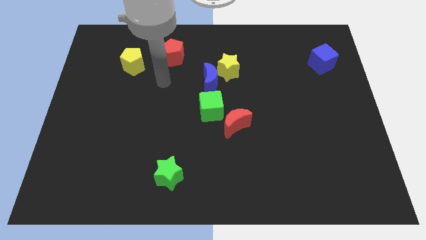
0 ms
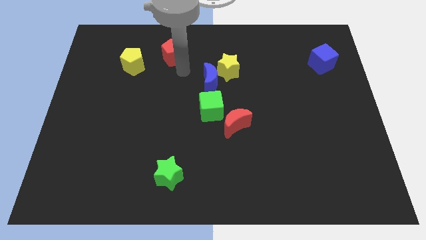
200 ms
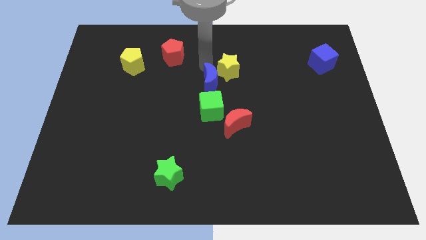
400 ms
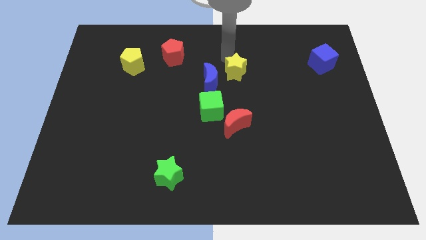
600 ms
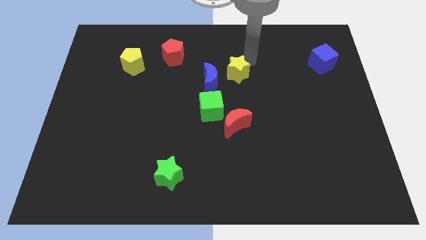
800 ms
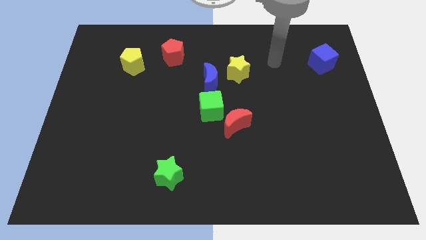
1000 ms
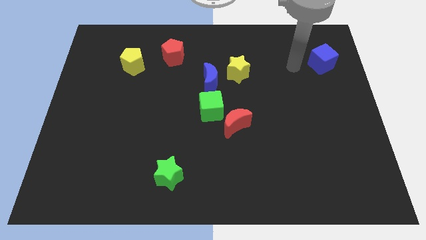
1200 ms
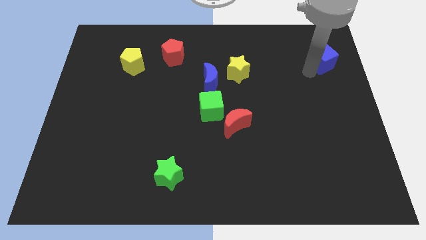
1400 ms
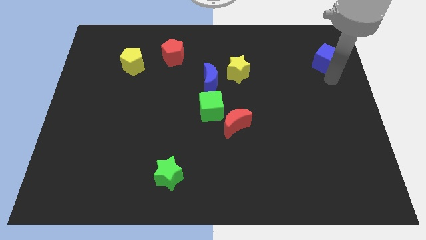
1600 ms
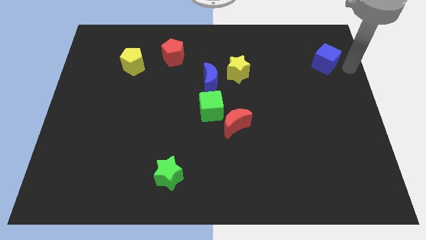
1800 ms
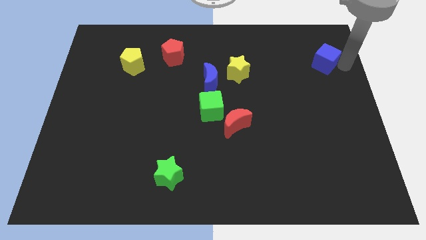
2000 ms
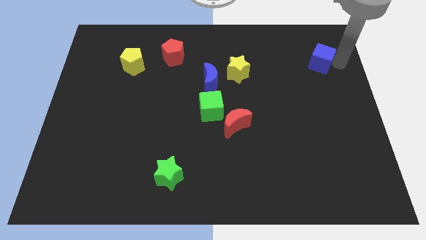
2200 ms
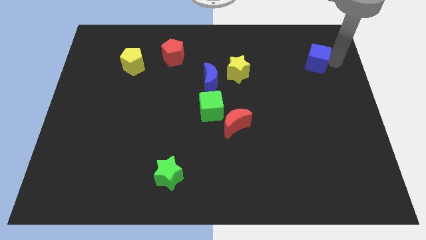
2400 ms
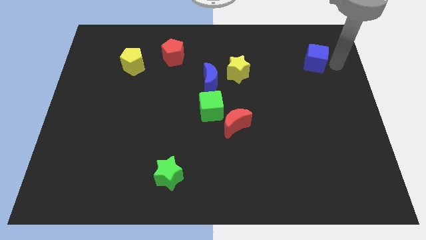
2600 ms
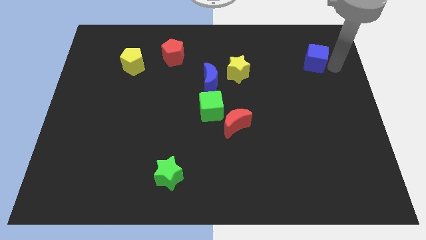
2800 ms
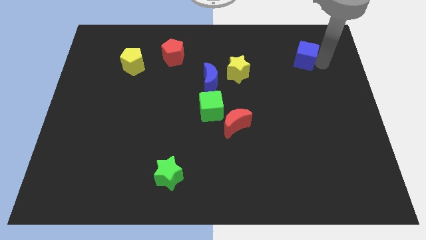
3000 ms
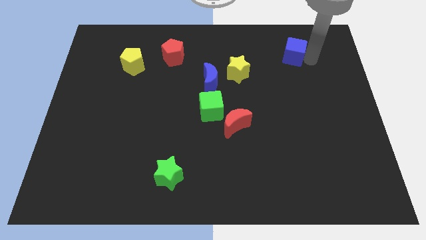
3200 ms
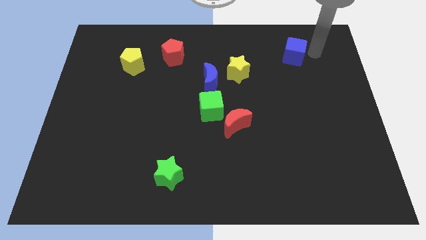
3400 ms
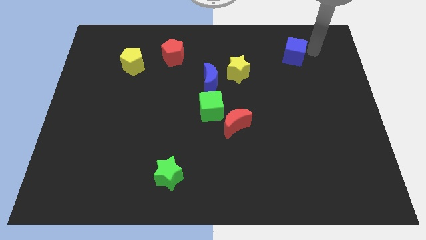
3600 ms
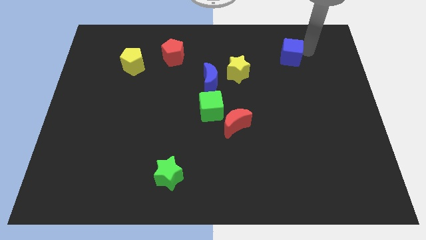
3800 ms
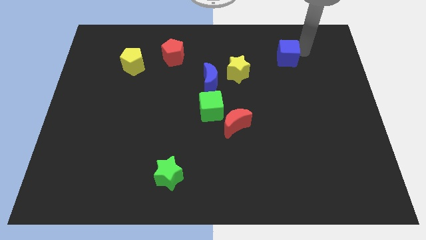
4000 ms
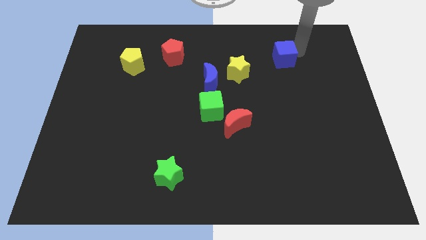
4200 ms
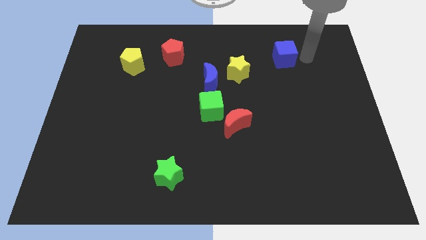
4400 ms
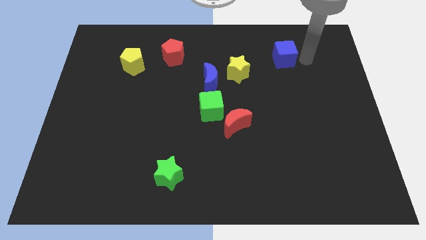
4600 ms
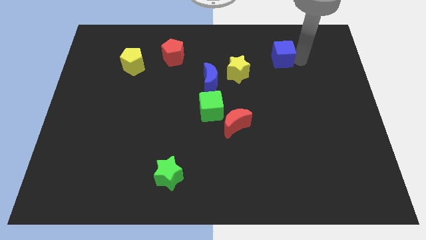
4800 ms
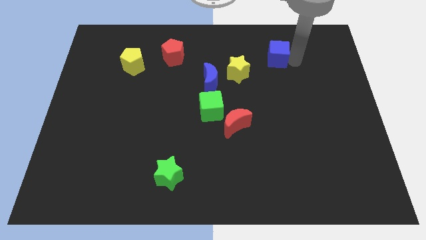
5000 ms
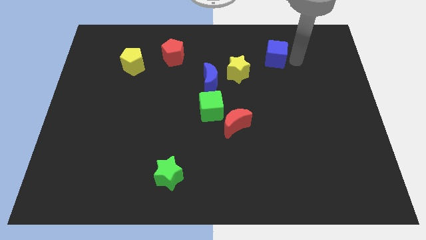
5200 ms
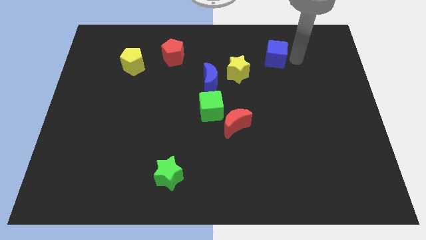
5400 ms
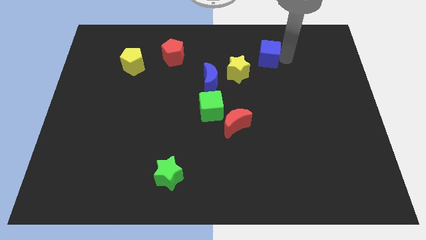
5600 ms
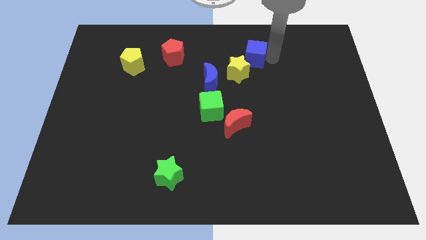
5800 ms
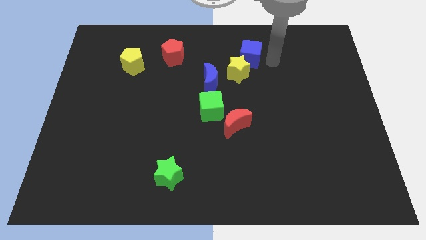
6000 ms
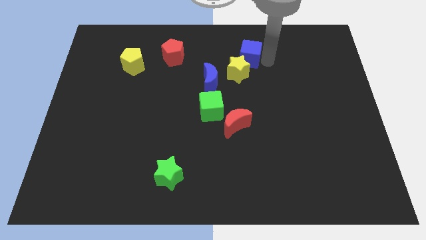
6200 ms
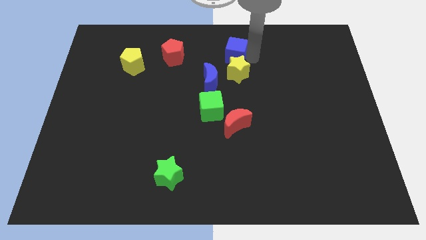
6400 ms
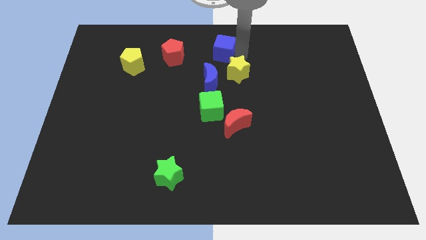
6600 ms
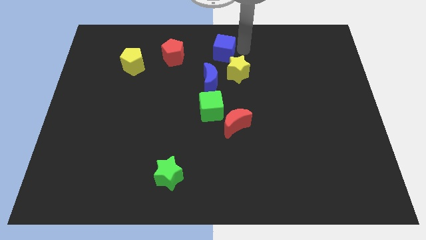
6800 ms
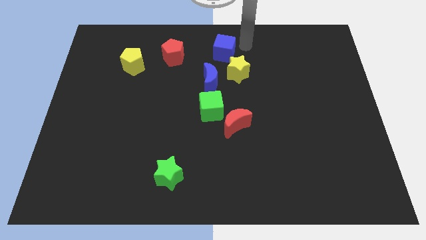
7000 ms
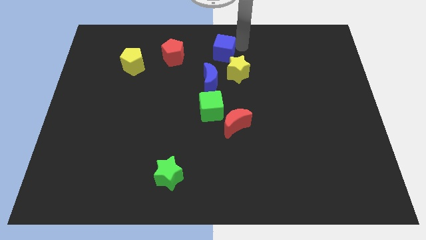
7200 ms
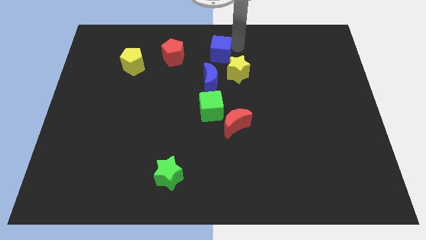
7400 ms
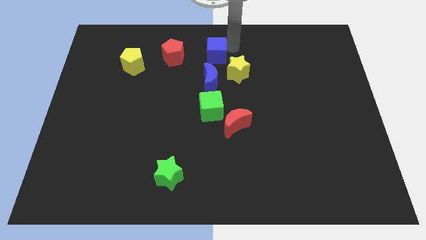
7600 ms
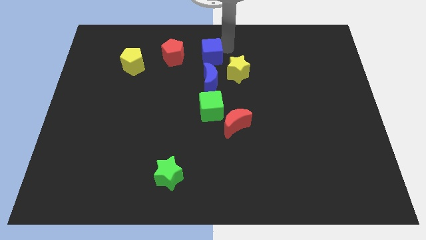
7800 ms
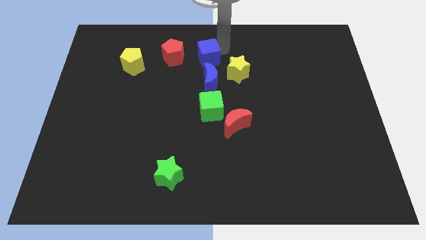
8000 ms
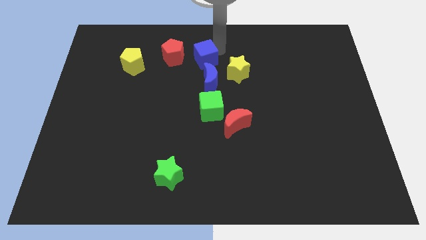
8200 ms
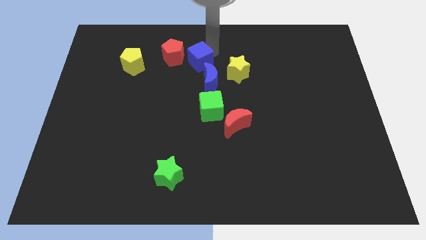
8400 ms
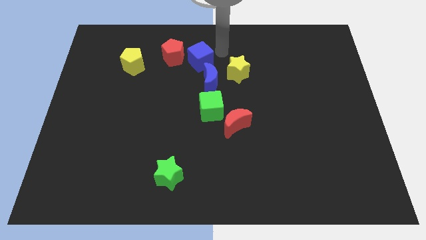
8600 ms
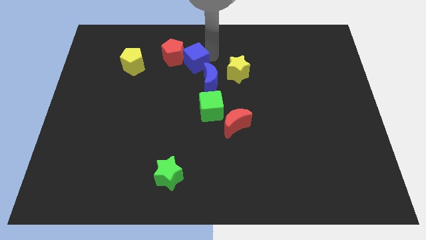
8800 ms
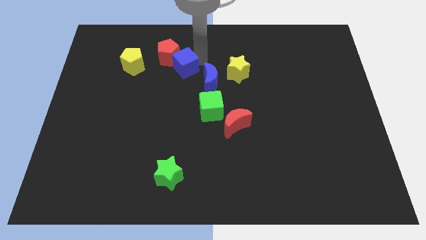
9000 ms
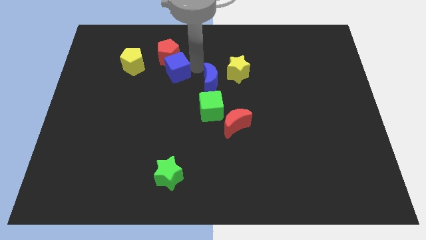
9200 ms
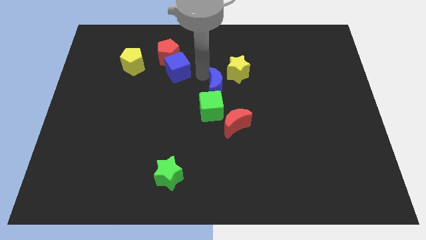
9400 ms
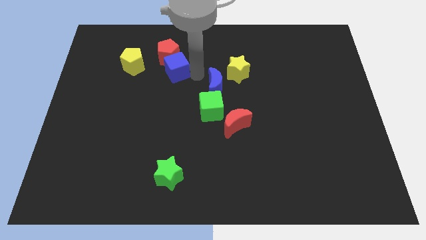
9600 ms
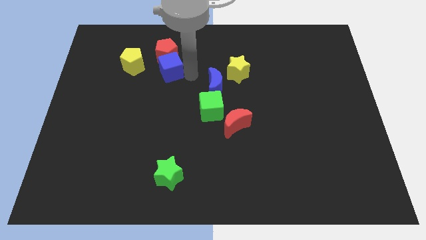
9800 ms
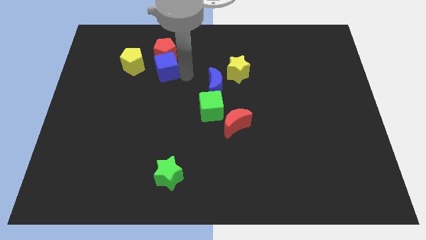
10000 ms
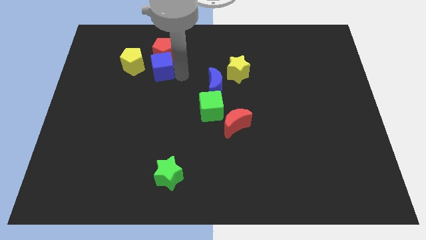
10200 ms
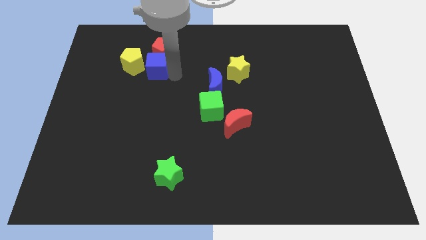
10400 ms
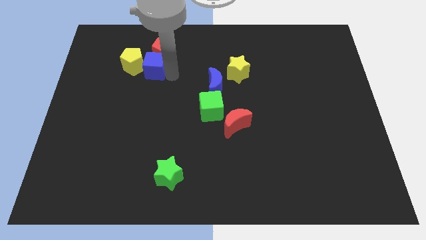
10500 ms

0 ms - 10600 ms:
slide the blue cube to the yellow pentagon
